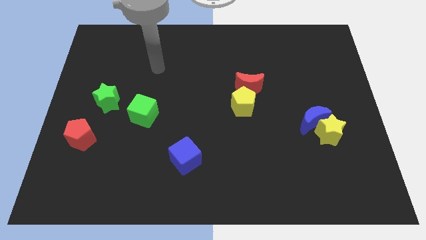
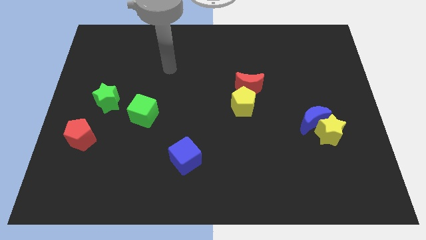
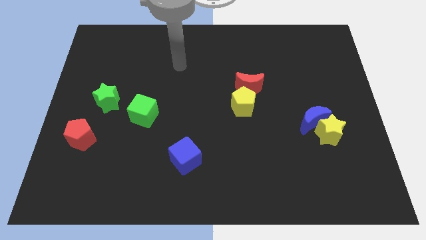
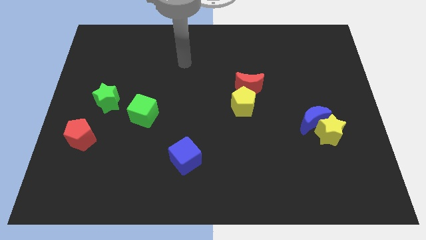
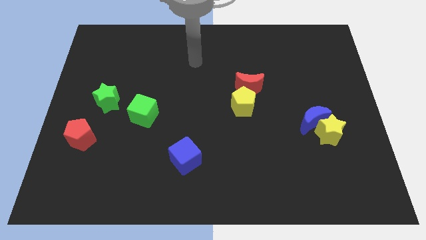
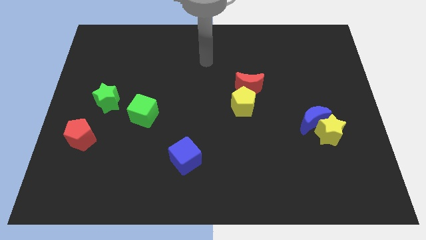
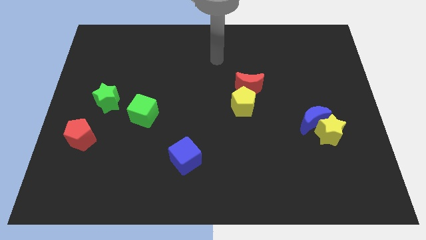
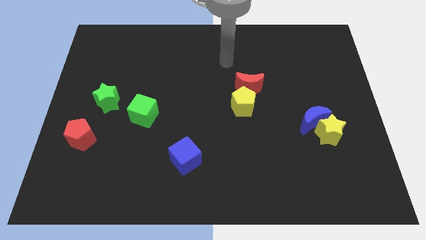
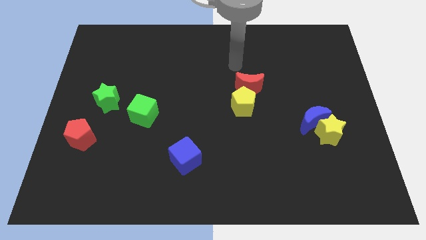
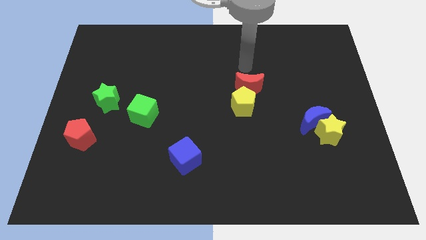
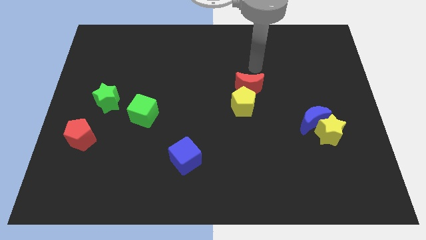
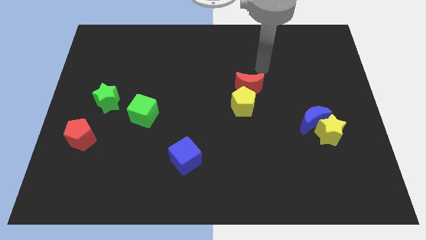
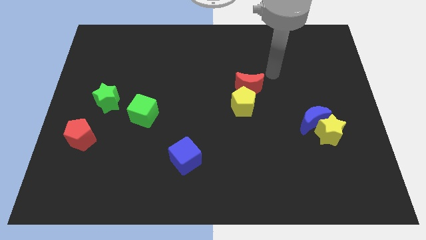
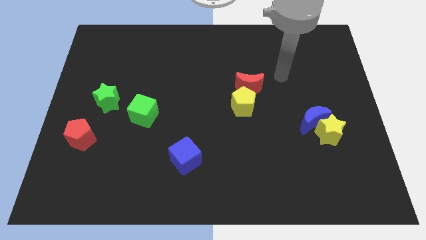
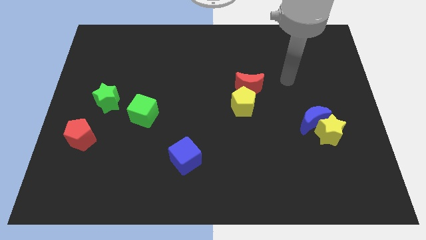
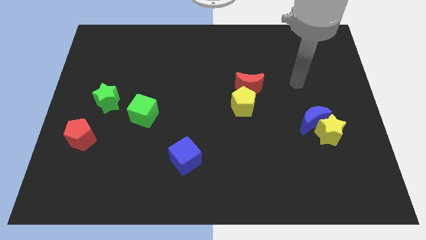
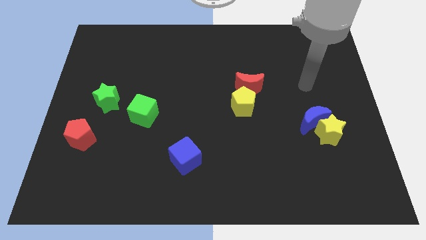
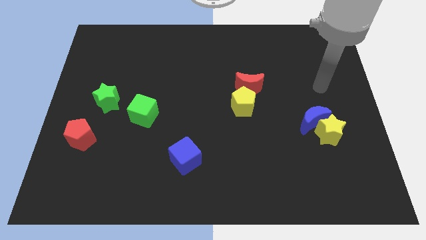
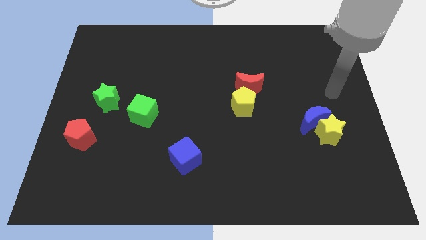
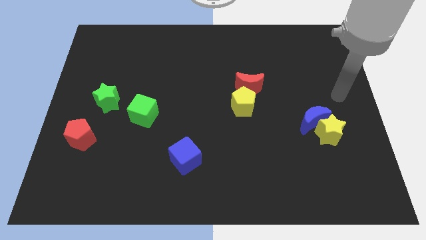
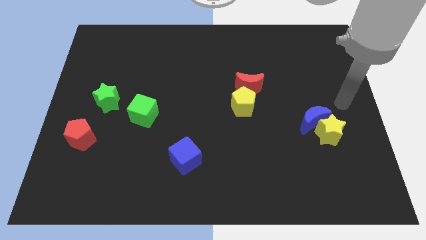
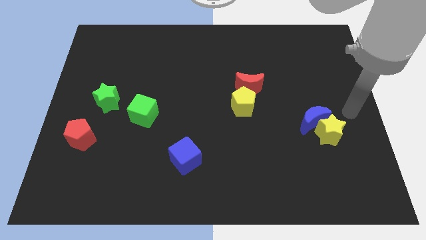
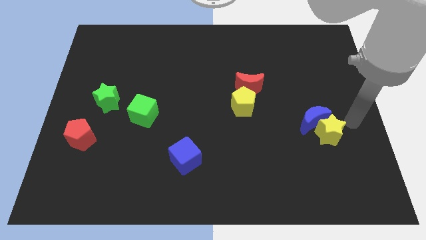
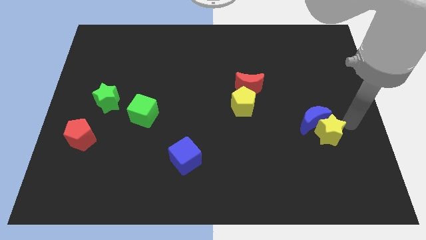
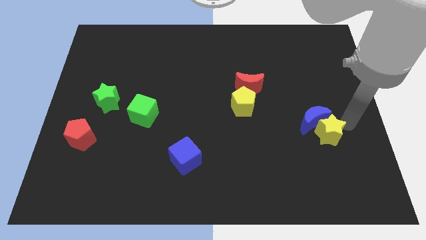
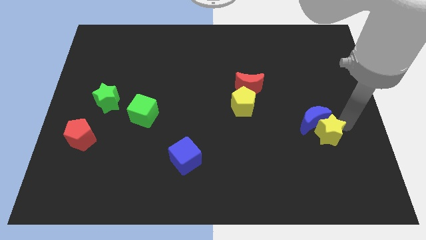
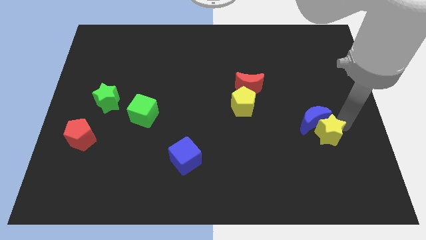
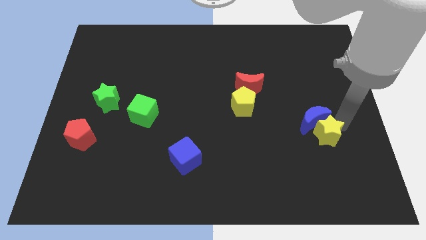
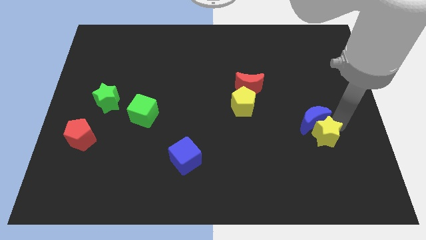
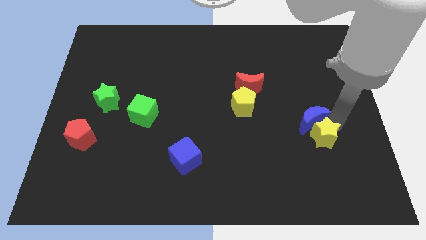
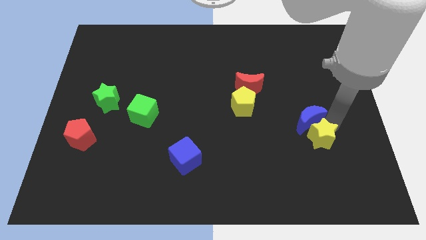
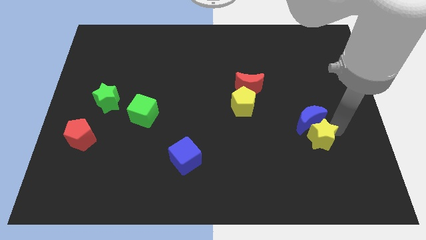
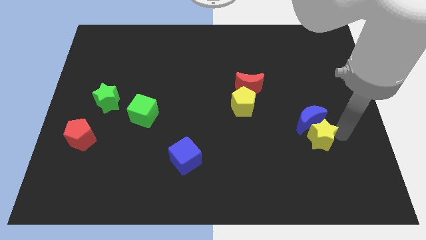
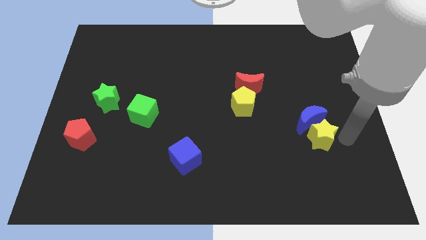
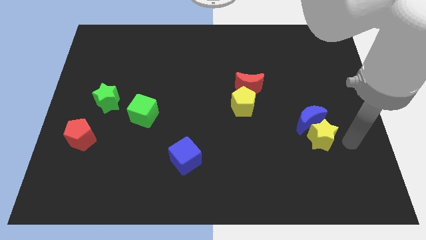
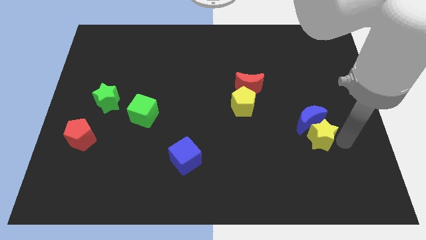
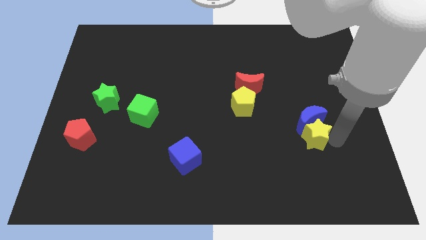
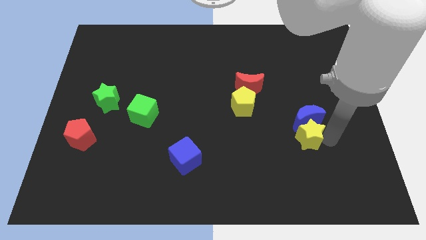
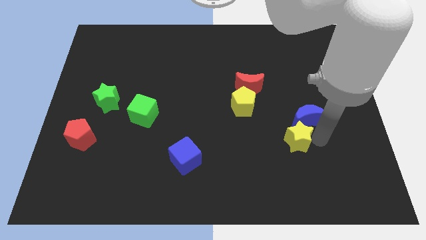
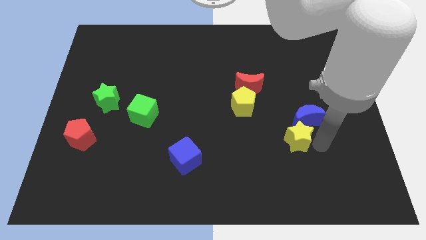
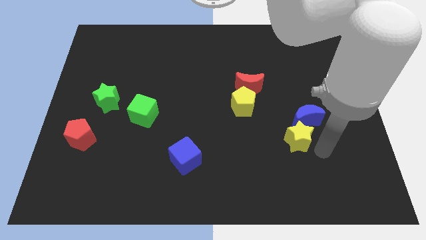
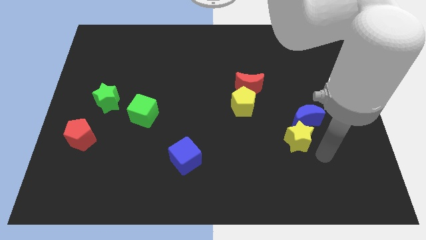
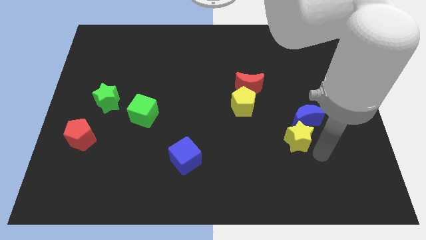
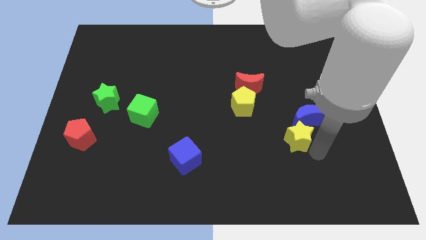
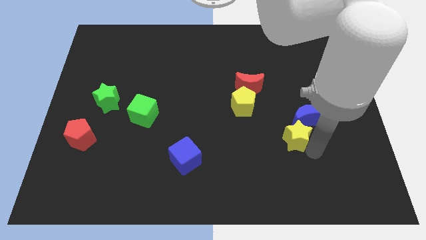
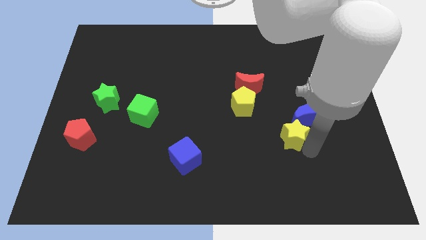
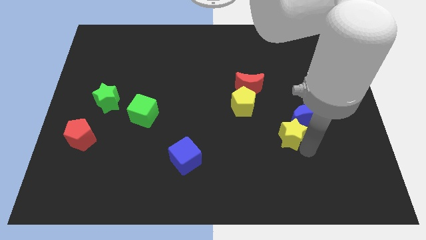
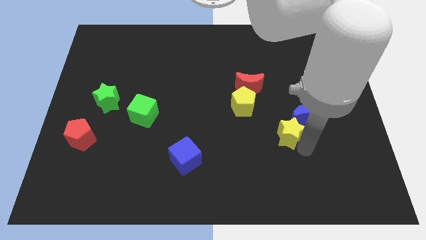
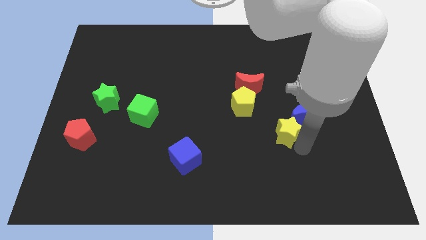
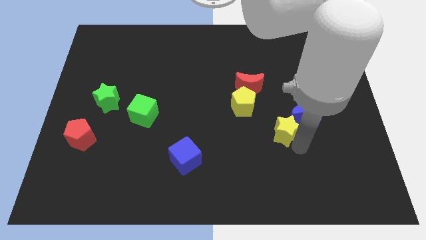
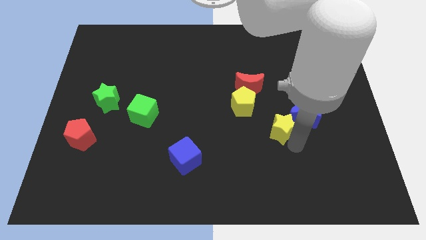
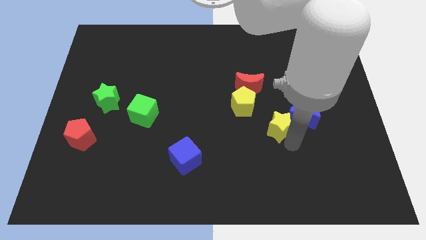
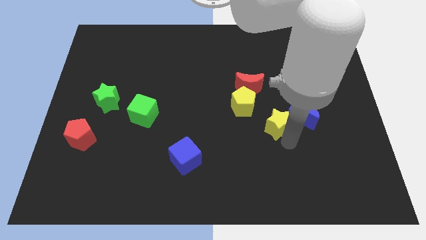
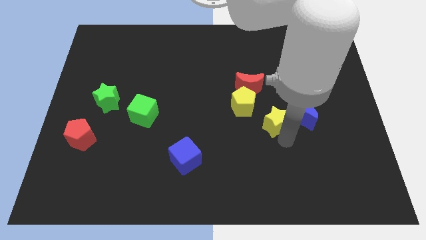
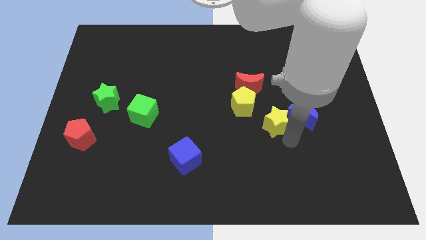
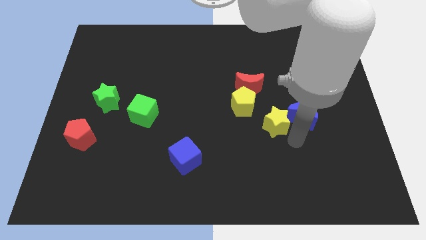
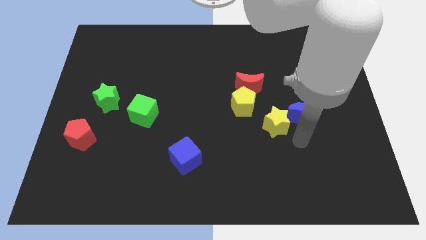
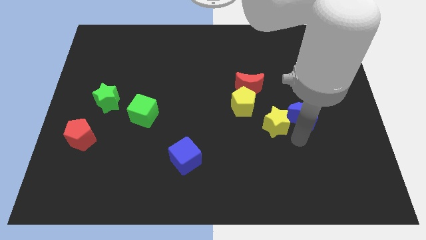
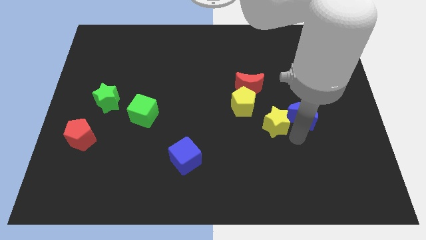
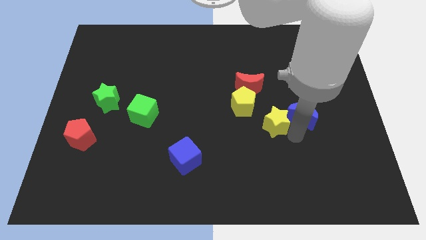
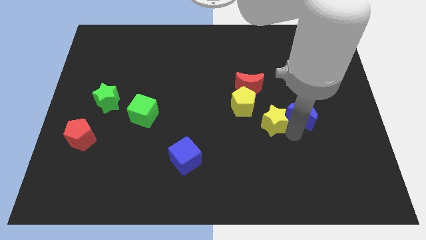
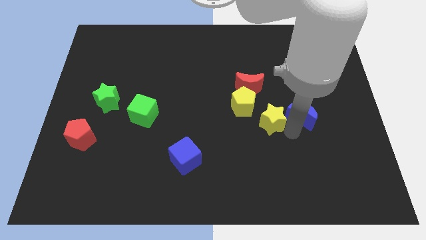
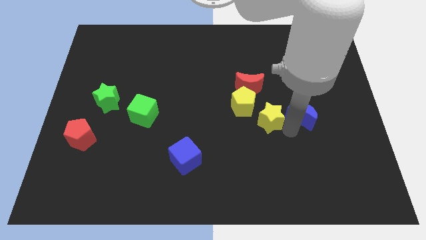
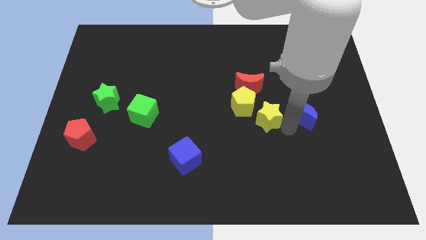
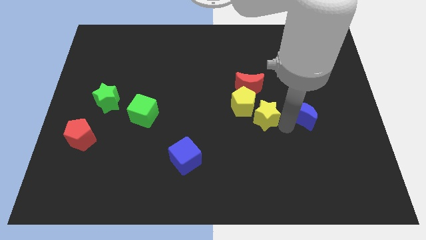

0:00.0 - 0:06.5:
put the yellow star to the yellow pentagon

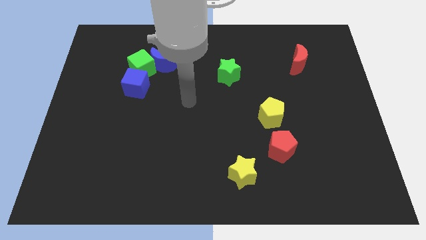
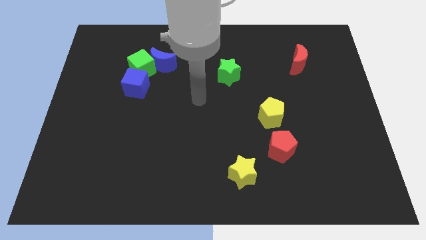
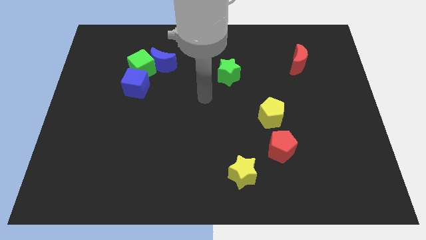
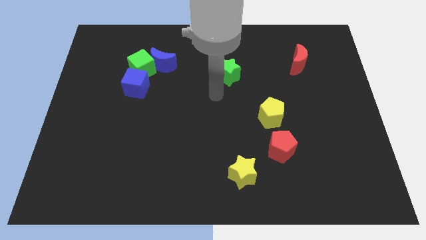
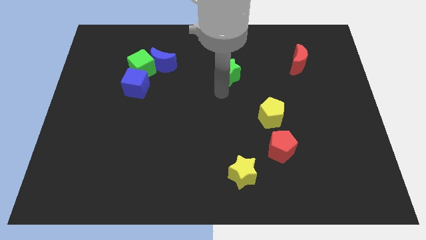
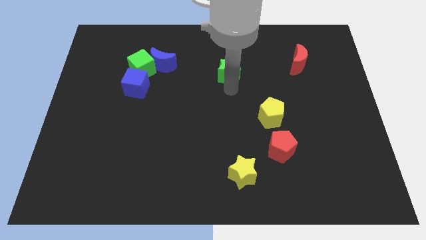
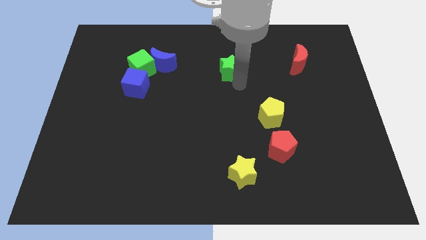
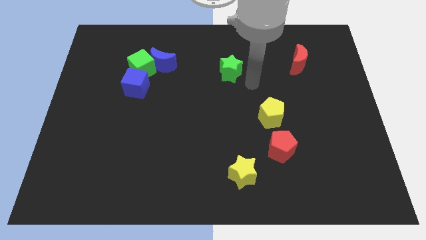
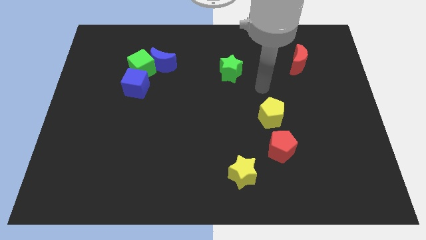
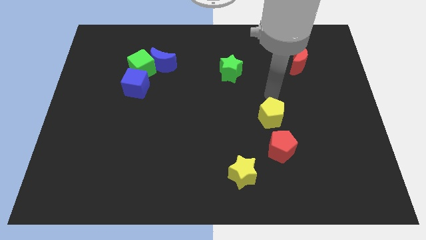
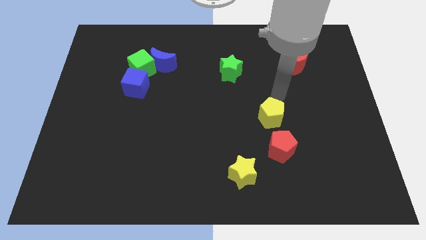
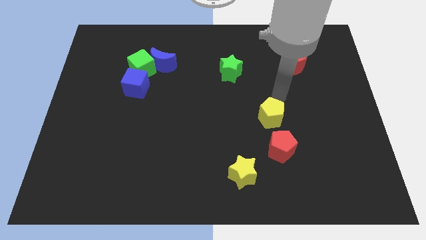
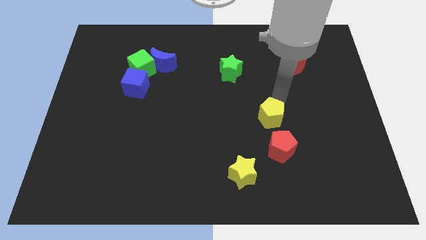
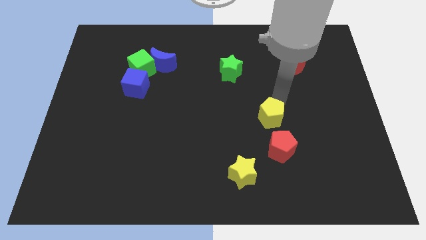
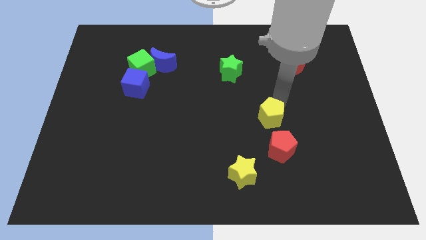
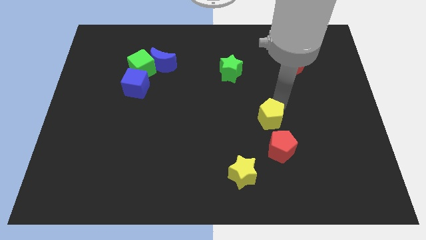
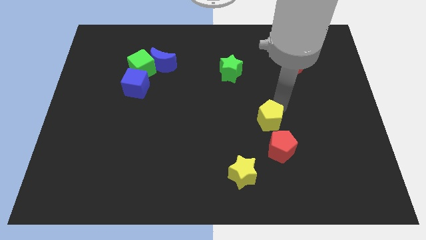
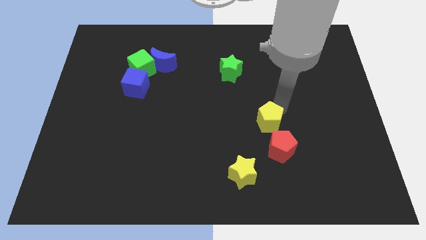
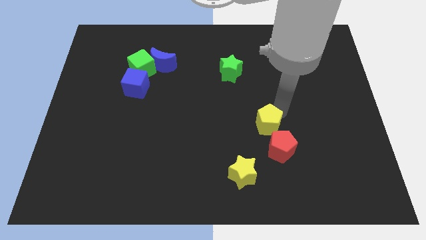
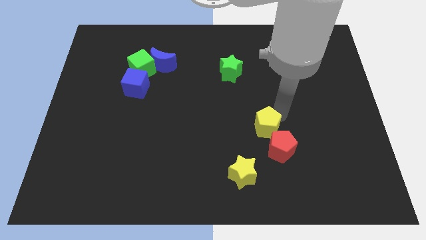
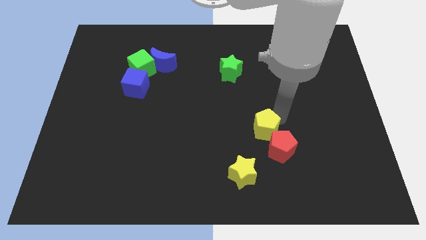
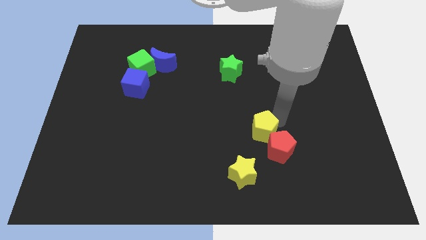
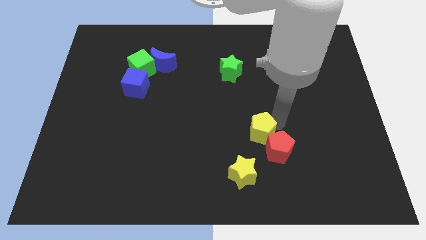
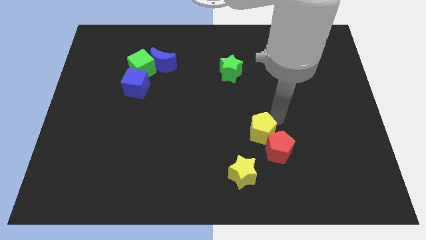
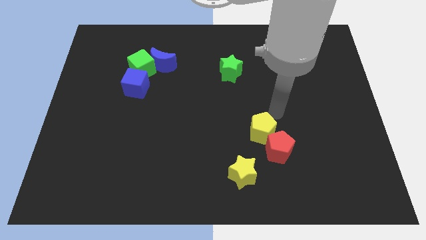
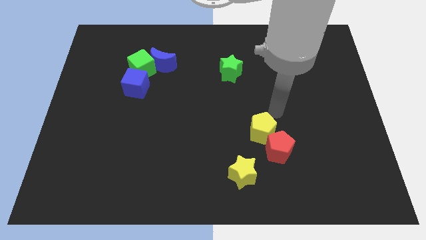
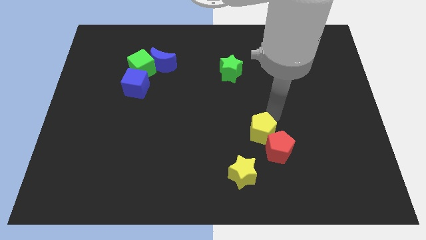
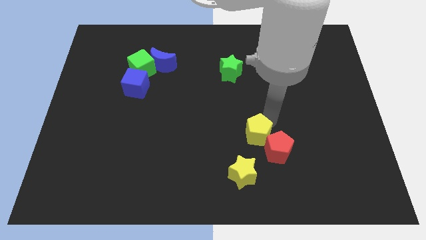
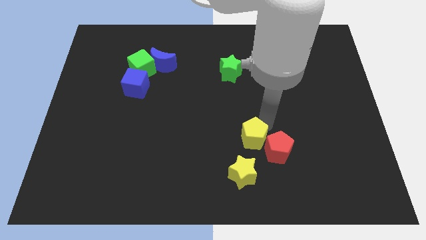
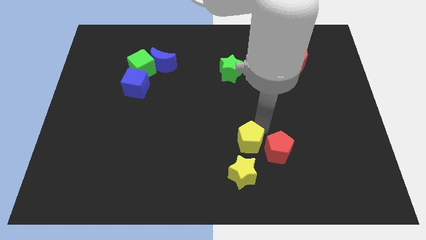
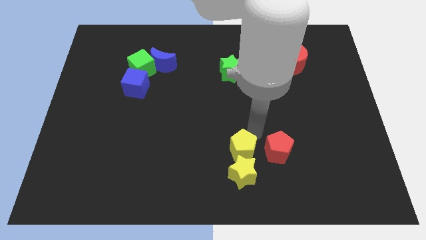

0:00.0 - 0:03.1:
put the yellow pentagon next to the yellow star
